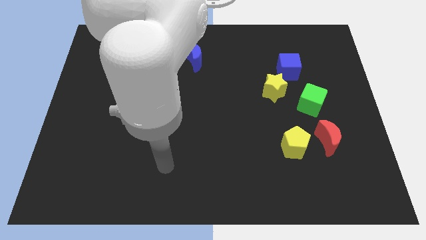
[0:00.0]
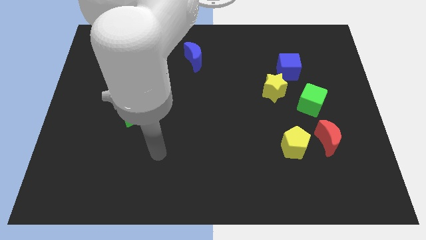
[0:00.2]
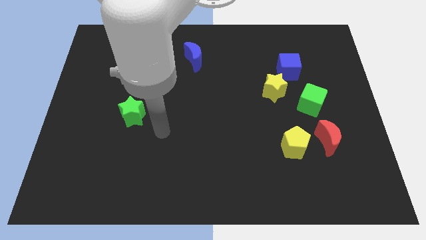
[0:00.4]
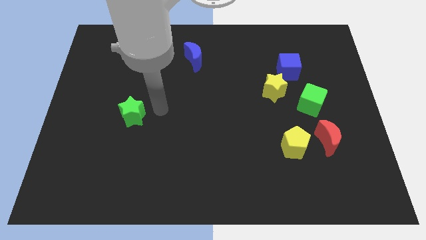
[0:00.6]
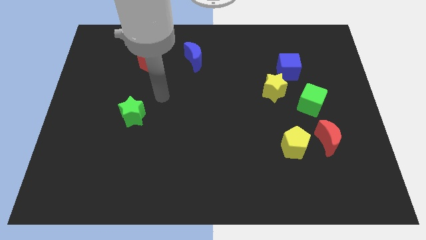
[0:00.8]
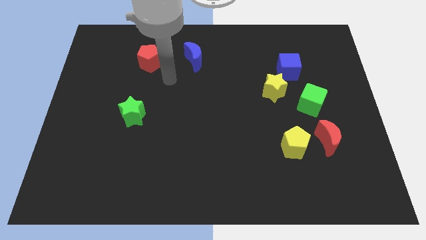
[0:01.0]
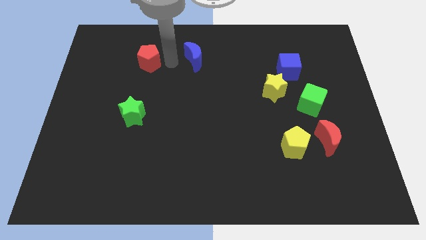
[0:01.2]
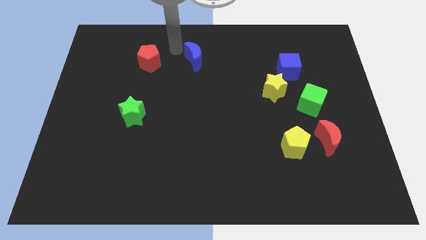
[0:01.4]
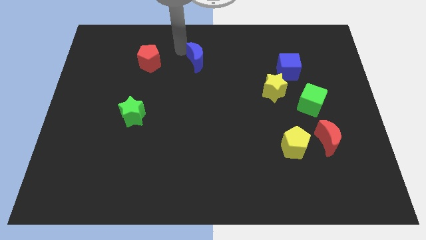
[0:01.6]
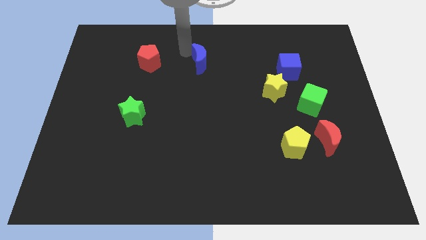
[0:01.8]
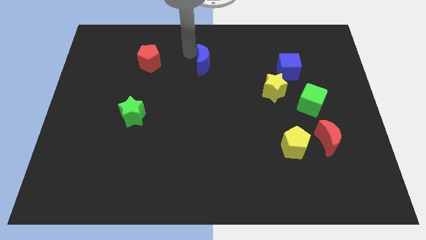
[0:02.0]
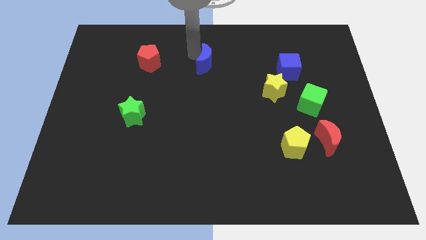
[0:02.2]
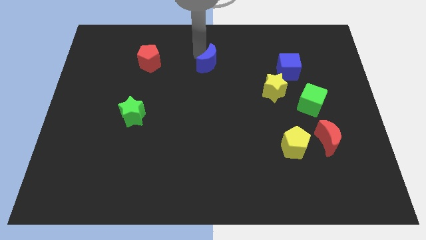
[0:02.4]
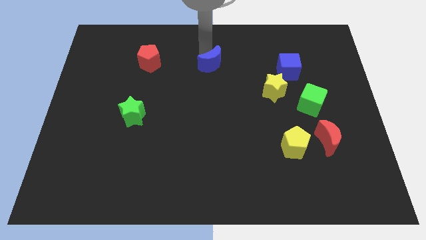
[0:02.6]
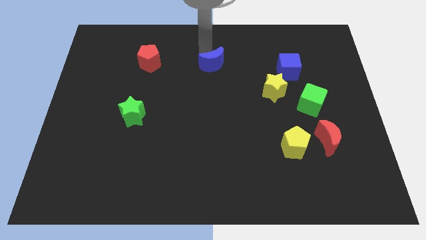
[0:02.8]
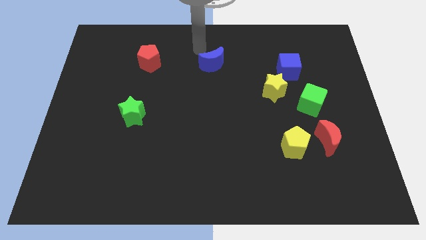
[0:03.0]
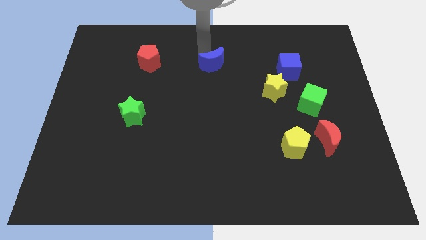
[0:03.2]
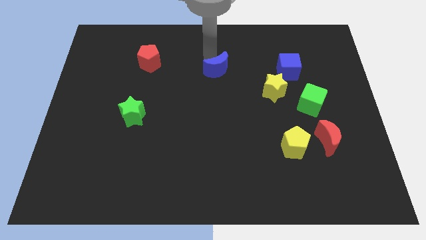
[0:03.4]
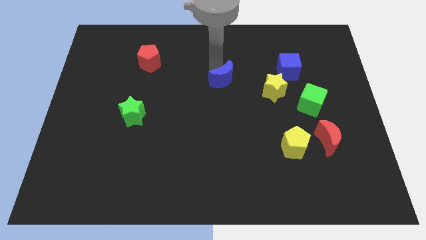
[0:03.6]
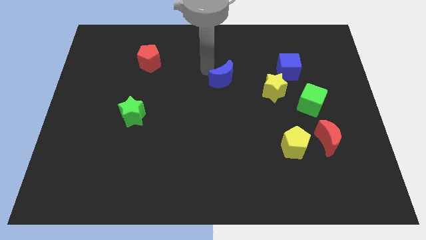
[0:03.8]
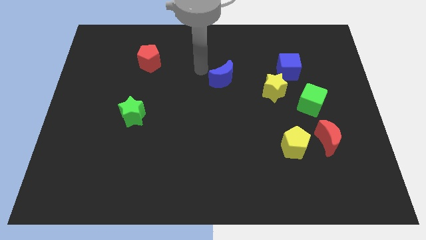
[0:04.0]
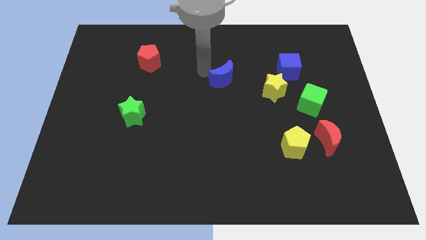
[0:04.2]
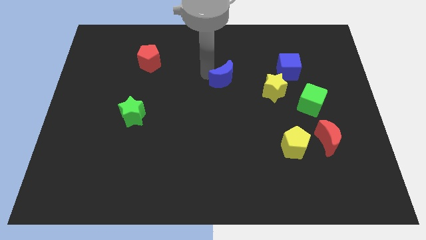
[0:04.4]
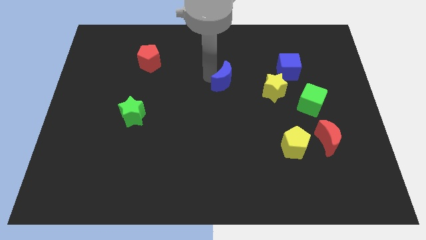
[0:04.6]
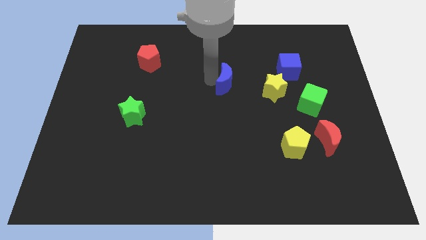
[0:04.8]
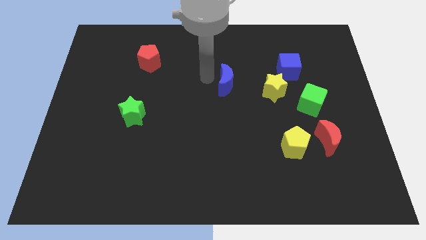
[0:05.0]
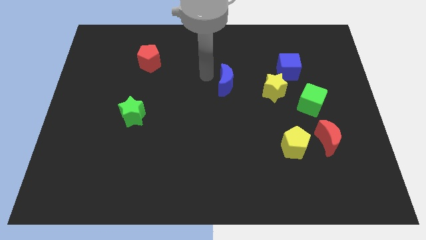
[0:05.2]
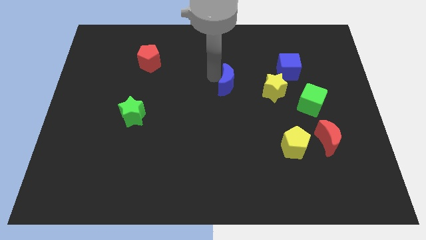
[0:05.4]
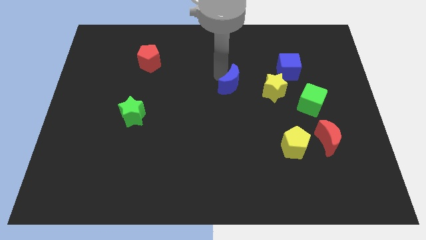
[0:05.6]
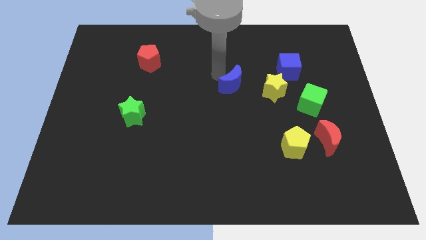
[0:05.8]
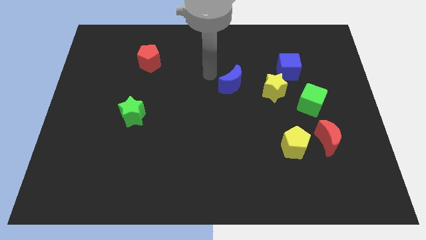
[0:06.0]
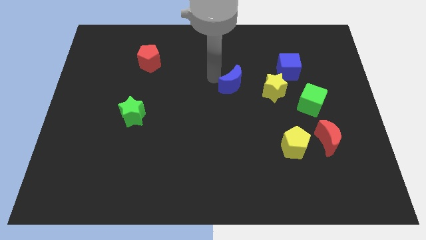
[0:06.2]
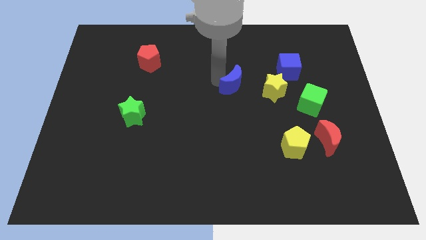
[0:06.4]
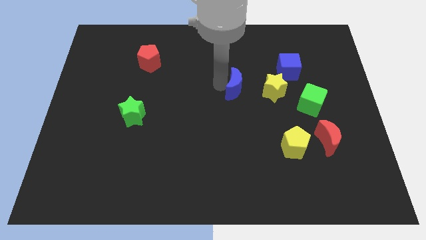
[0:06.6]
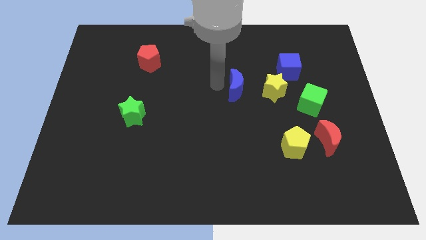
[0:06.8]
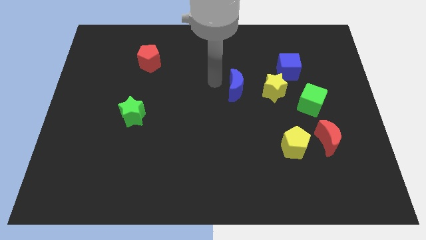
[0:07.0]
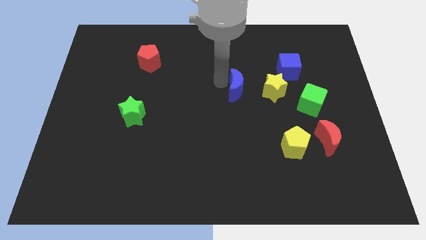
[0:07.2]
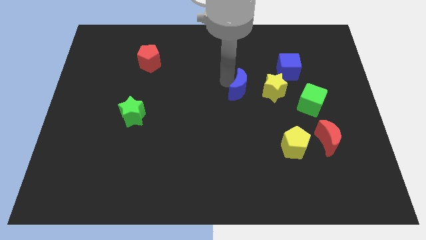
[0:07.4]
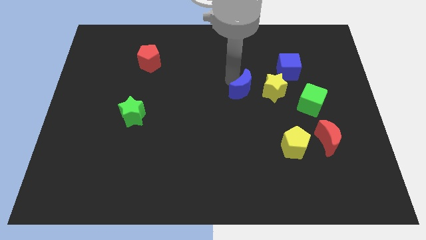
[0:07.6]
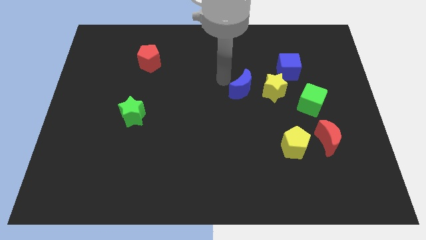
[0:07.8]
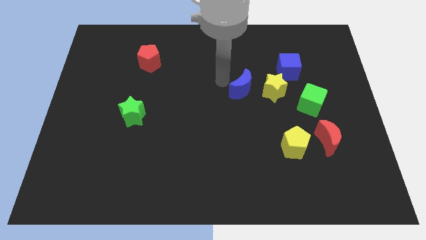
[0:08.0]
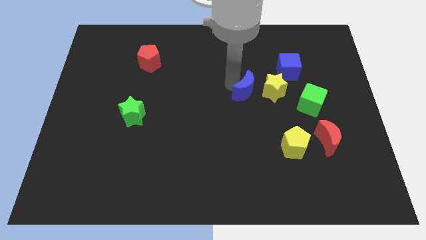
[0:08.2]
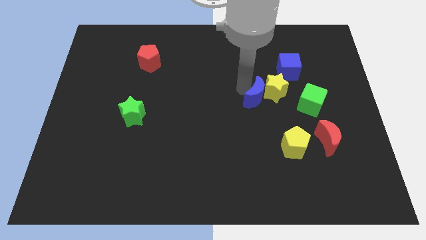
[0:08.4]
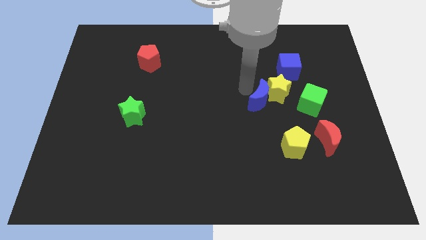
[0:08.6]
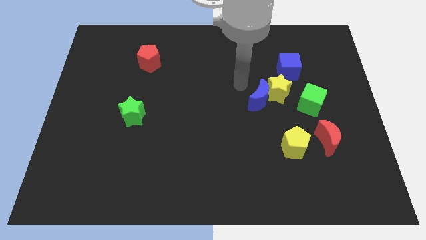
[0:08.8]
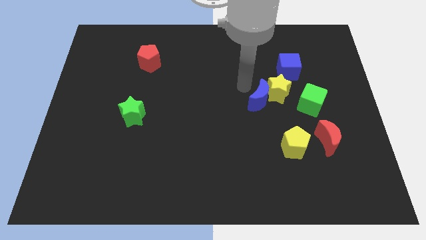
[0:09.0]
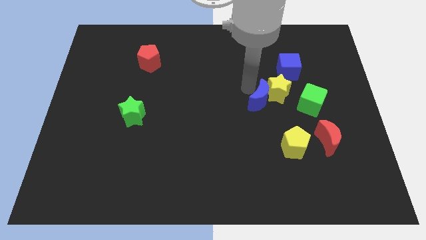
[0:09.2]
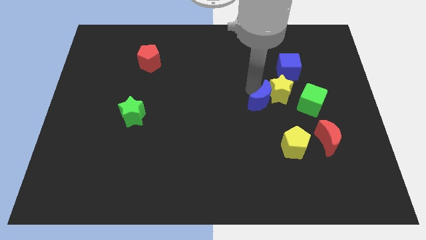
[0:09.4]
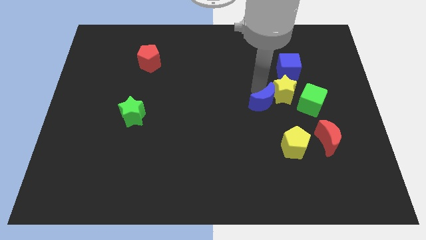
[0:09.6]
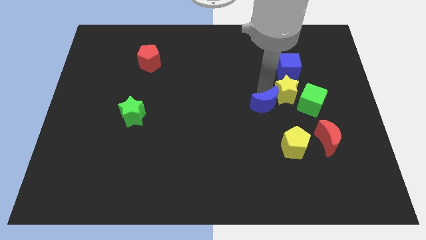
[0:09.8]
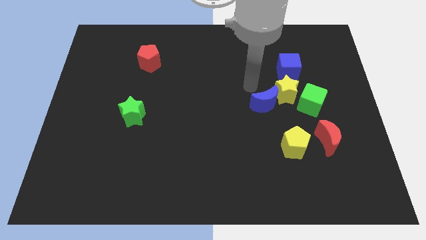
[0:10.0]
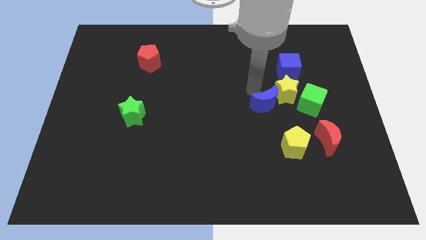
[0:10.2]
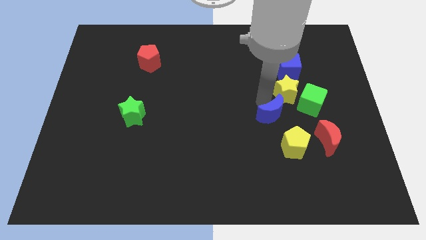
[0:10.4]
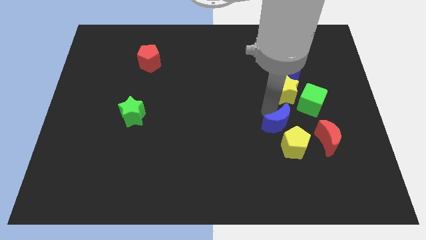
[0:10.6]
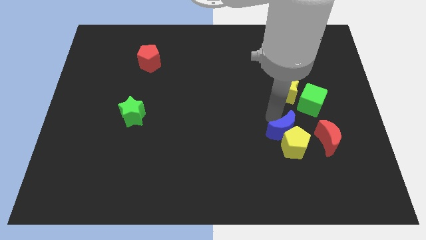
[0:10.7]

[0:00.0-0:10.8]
push the blue moon to the yellow pentagon

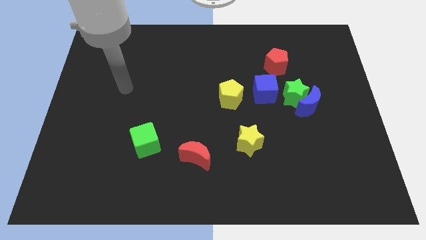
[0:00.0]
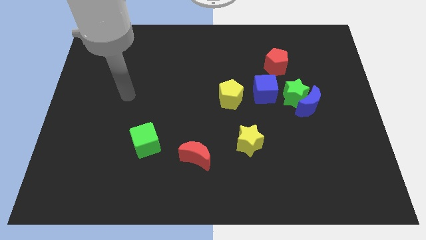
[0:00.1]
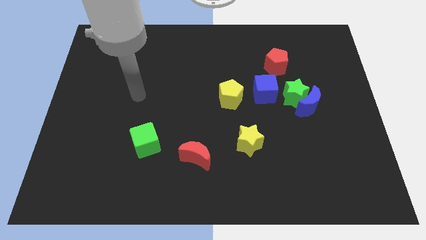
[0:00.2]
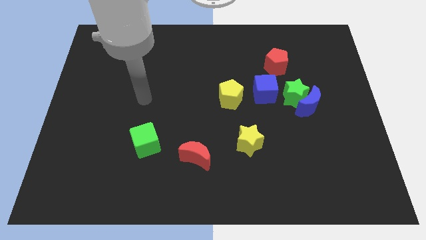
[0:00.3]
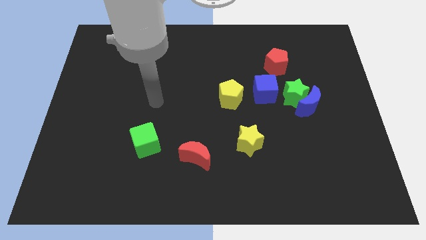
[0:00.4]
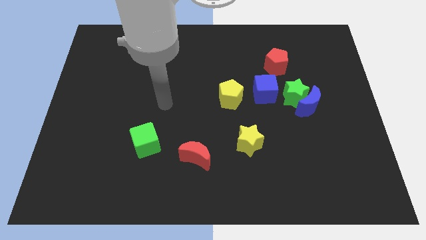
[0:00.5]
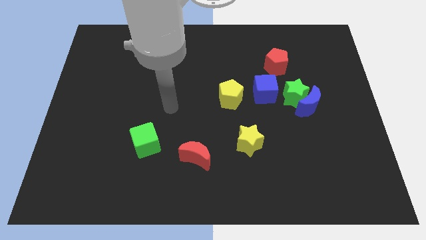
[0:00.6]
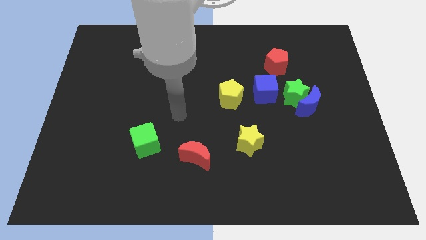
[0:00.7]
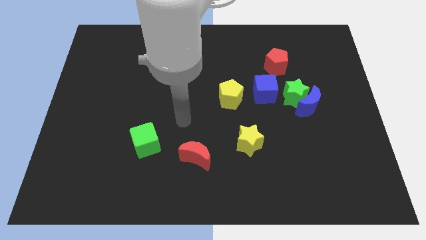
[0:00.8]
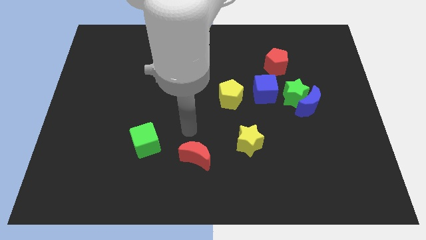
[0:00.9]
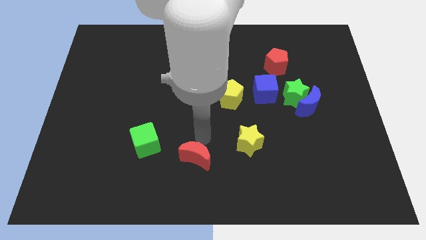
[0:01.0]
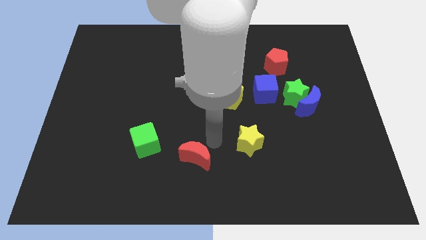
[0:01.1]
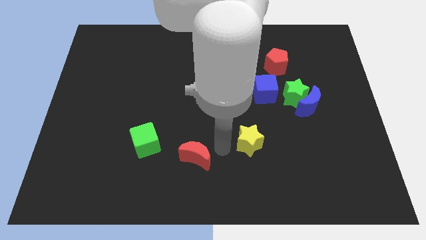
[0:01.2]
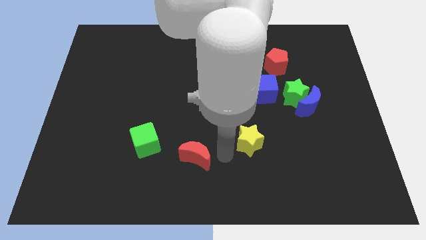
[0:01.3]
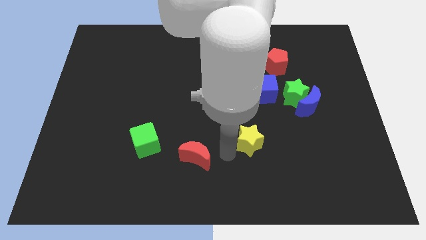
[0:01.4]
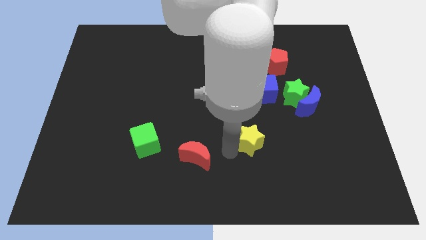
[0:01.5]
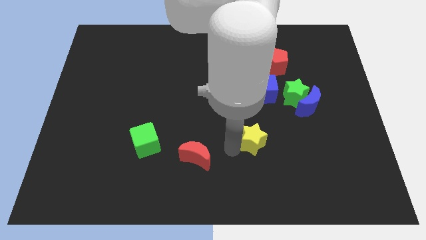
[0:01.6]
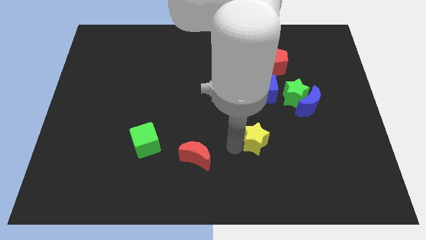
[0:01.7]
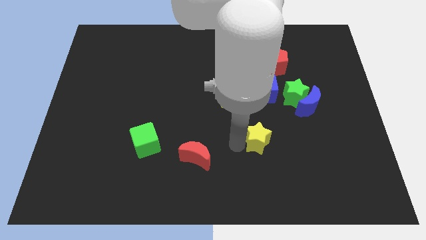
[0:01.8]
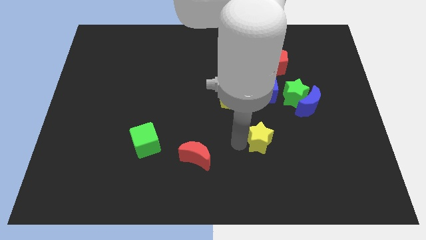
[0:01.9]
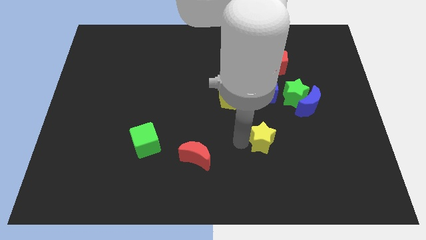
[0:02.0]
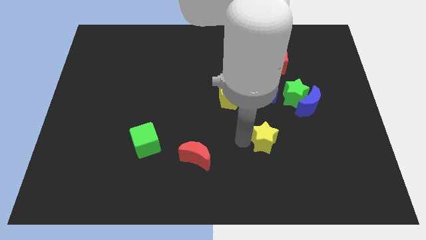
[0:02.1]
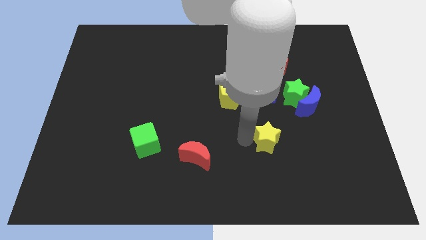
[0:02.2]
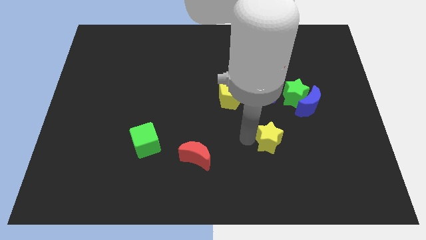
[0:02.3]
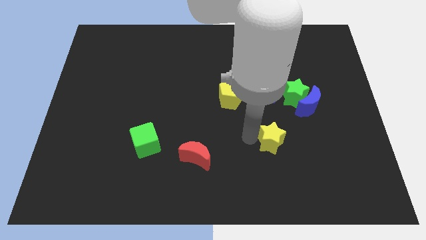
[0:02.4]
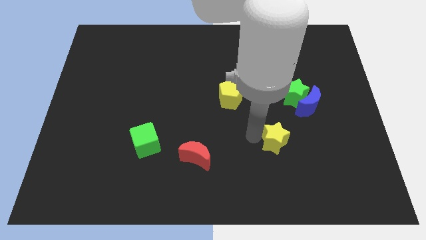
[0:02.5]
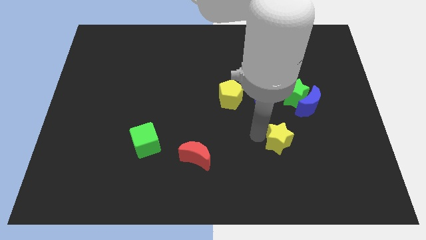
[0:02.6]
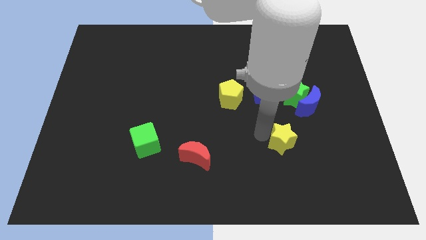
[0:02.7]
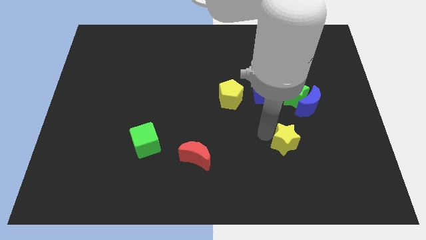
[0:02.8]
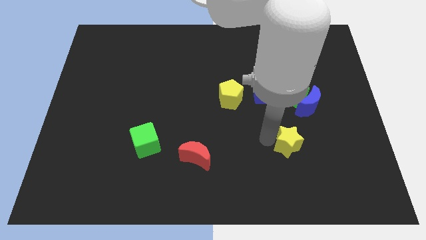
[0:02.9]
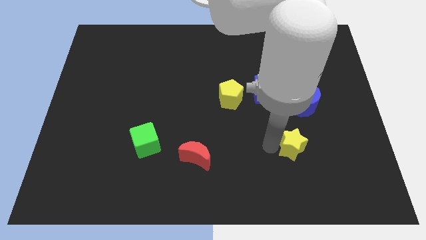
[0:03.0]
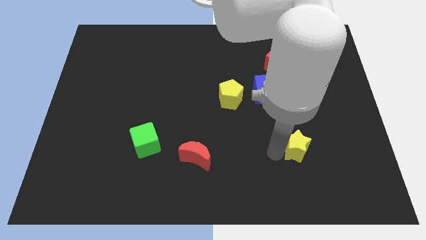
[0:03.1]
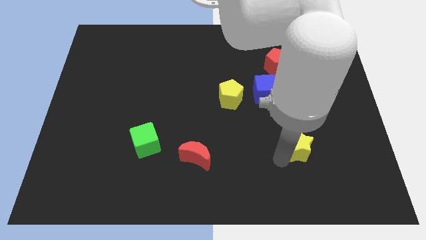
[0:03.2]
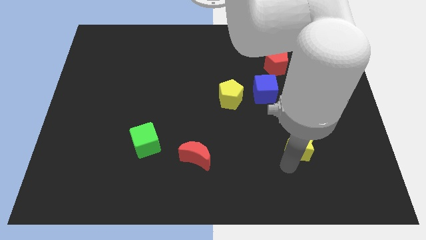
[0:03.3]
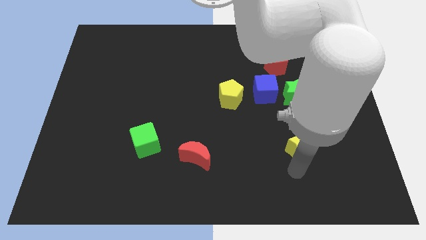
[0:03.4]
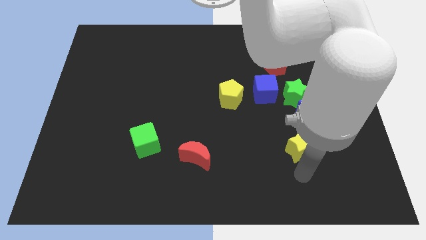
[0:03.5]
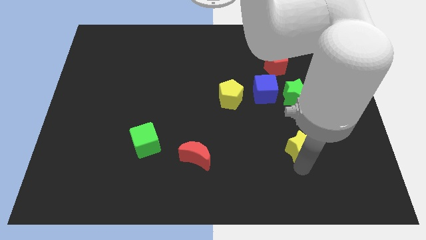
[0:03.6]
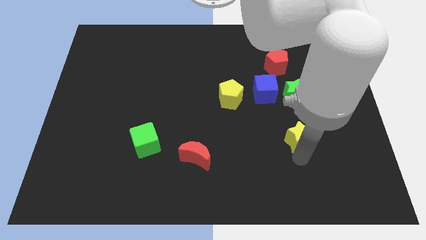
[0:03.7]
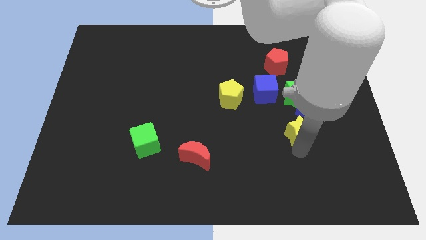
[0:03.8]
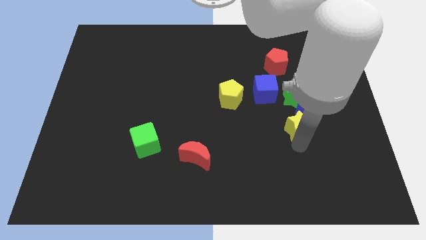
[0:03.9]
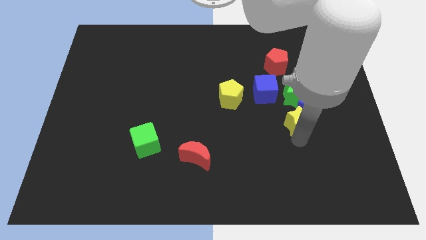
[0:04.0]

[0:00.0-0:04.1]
push the yellow star next to the blue moon
